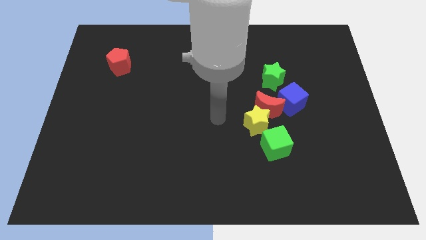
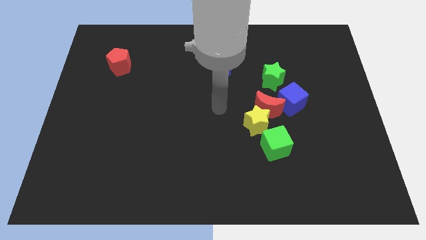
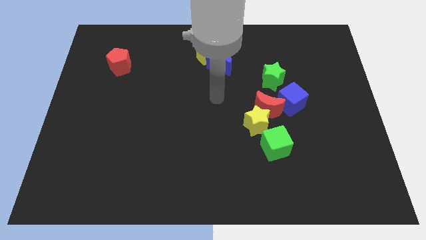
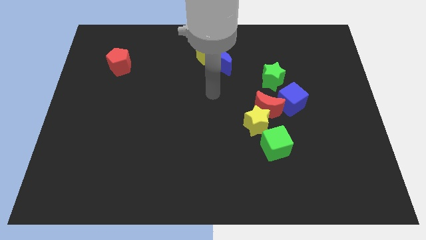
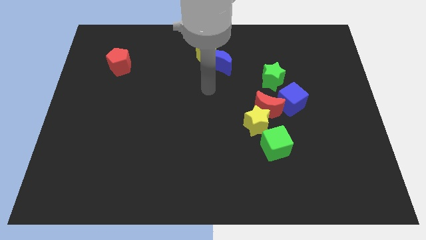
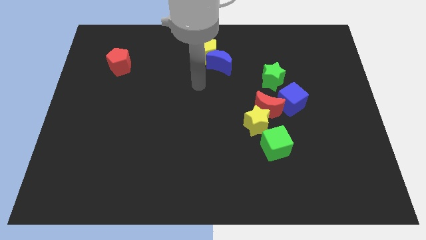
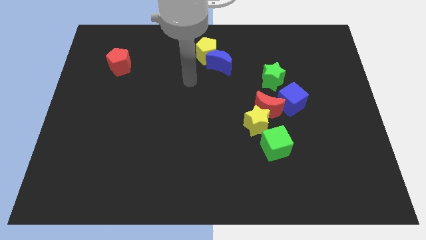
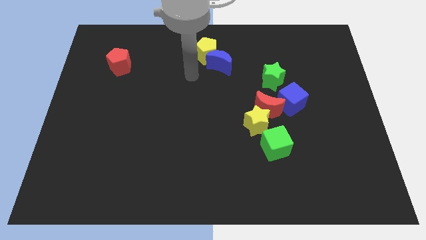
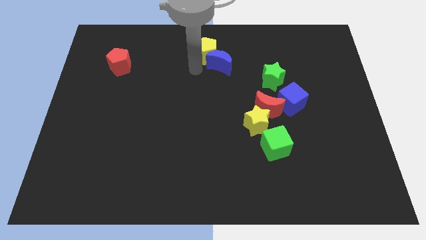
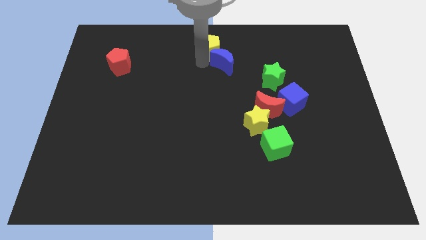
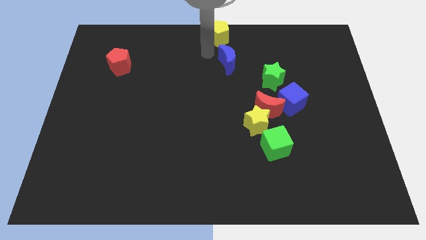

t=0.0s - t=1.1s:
move the blue moon away from the yellow pentagon

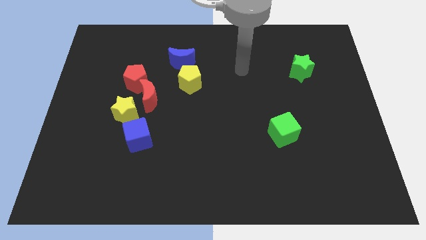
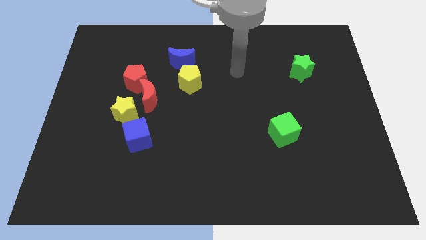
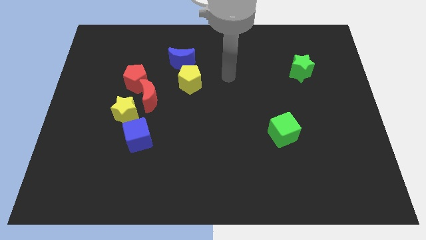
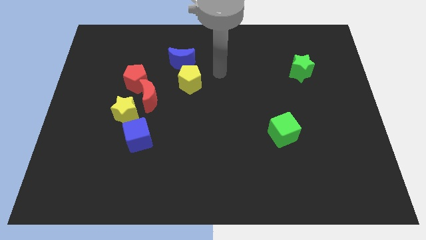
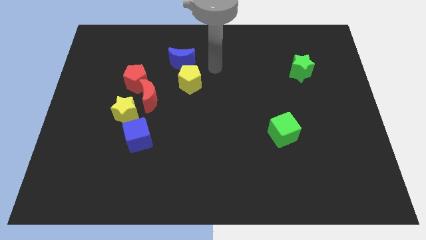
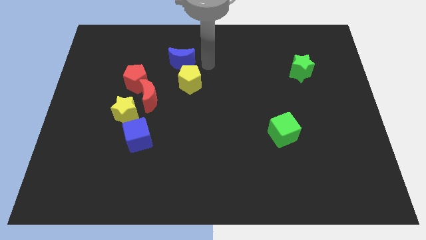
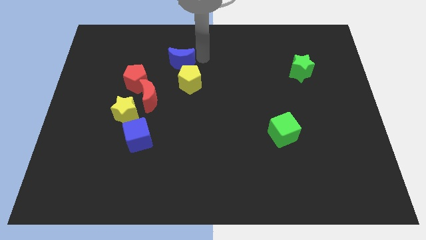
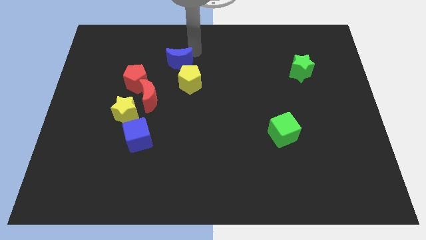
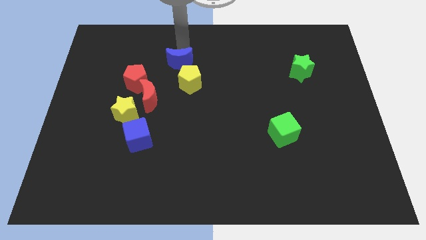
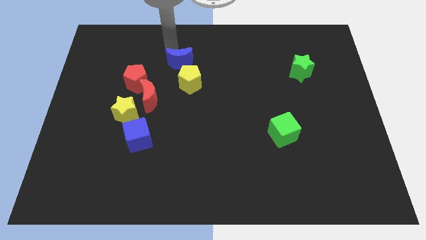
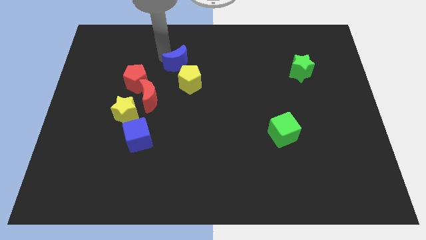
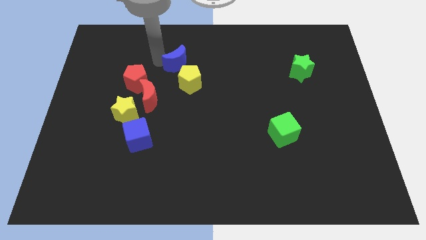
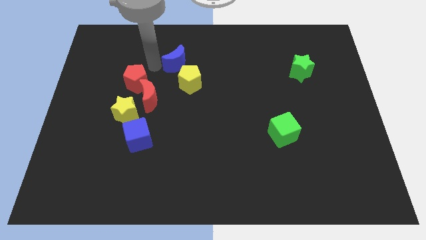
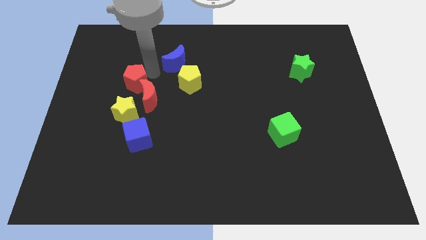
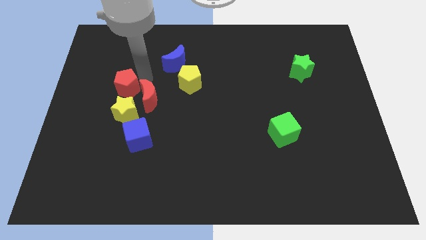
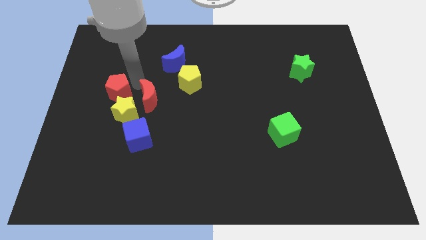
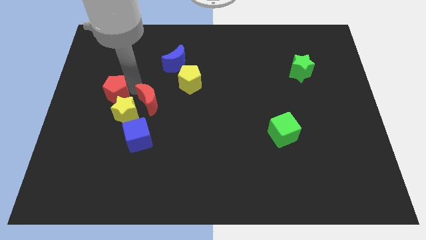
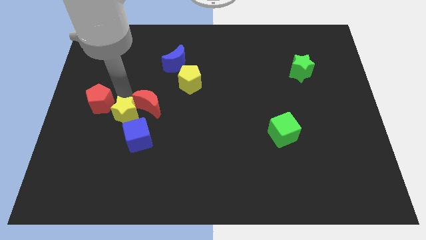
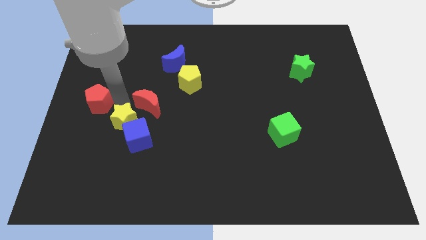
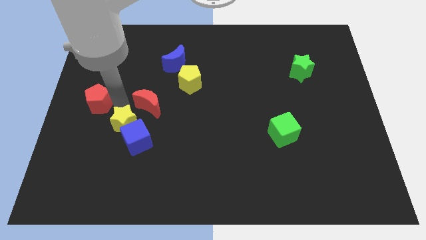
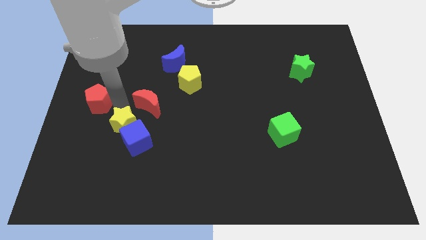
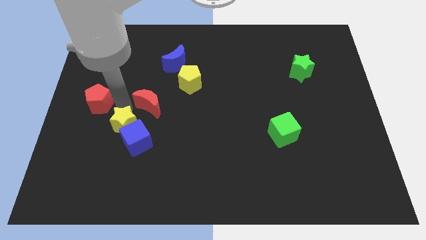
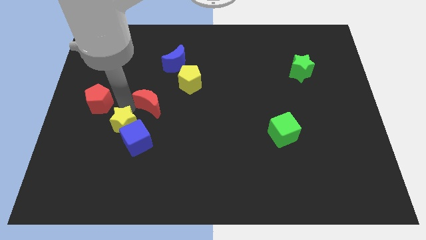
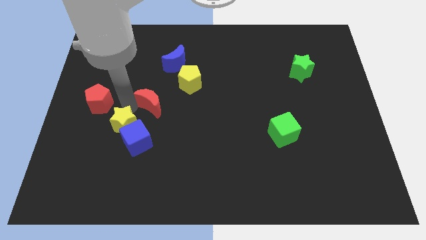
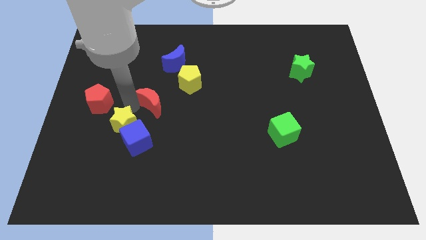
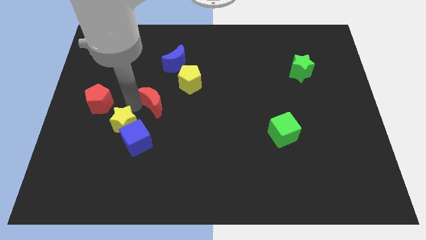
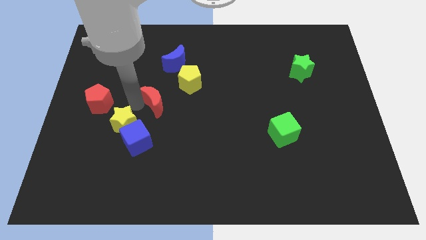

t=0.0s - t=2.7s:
move the red moon away from the yellow star and red pentagon

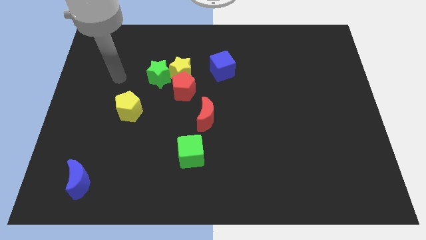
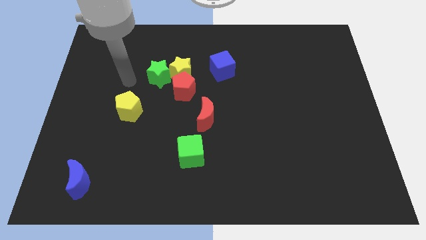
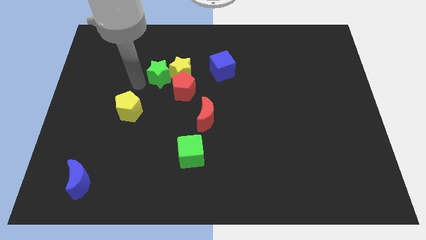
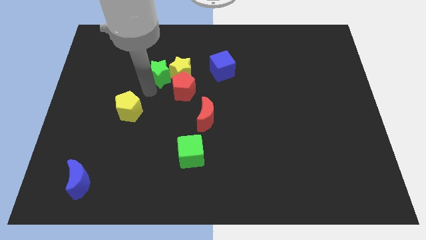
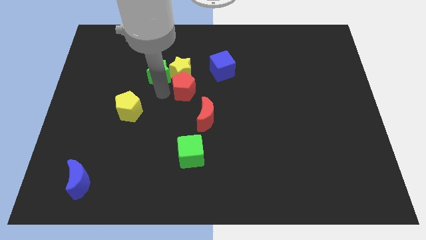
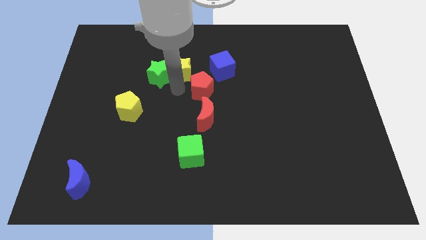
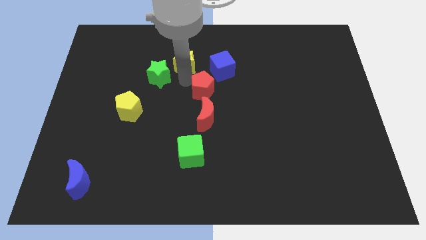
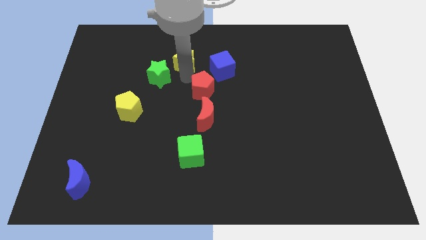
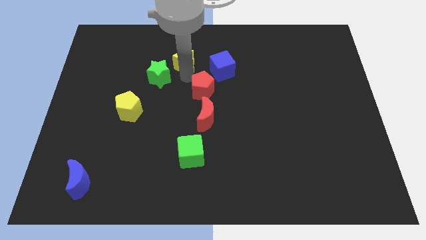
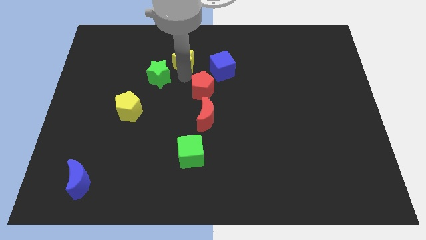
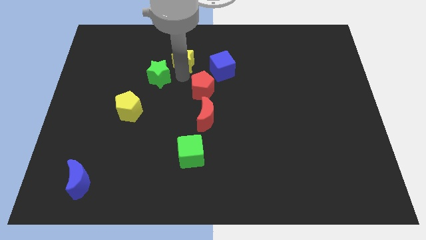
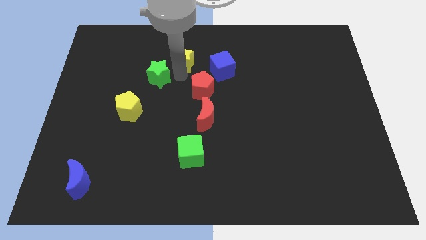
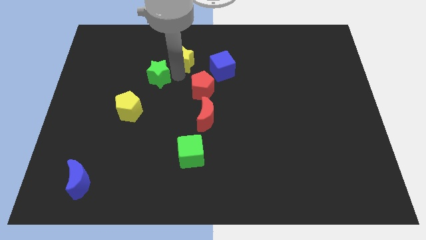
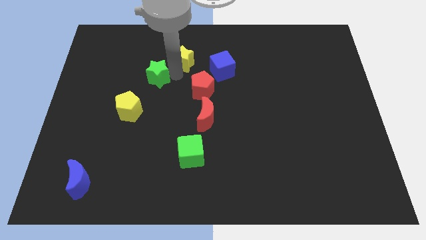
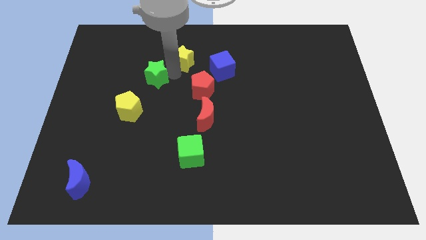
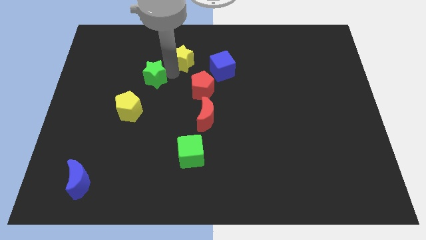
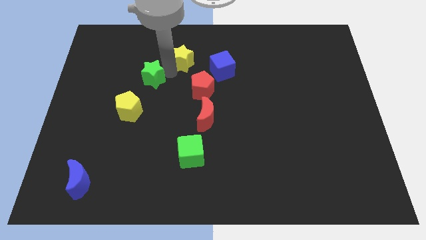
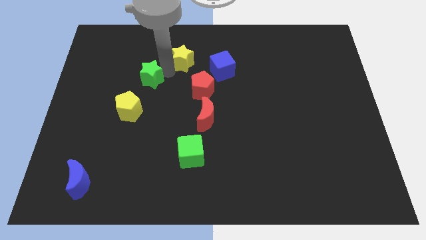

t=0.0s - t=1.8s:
move the green star away from the yellow star and red pentagon

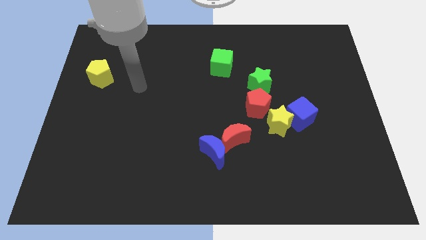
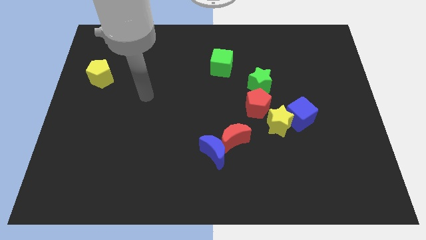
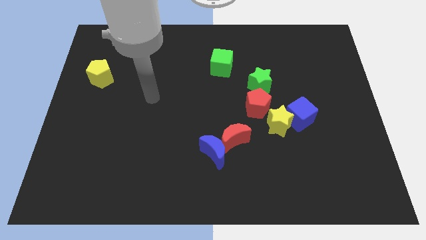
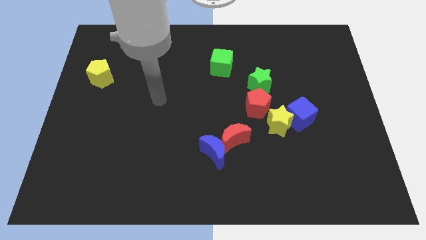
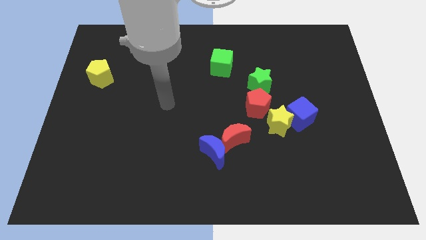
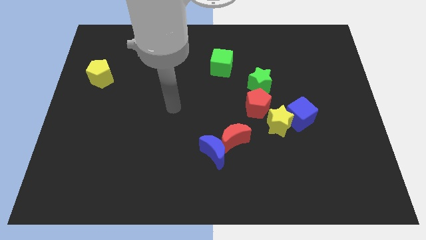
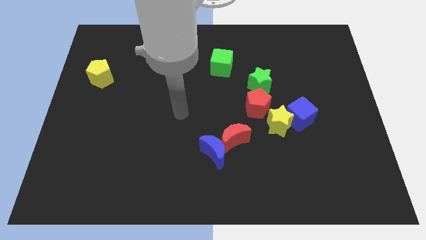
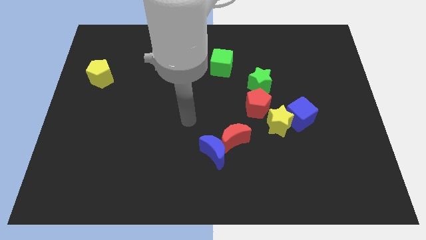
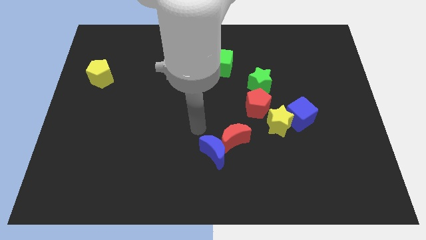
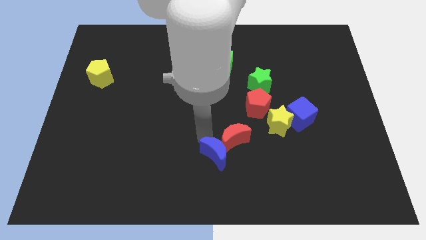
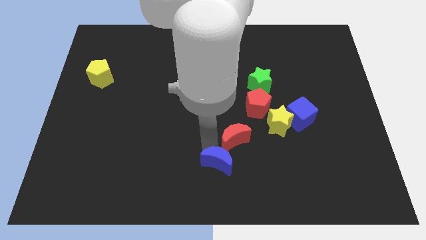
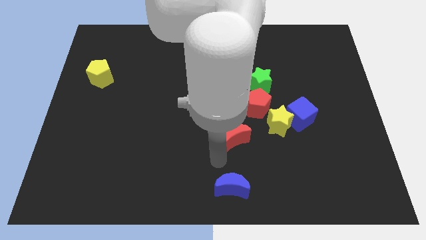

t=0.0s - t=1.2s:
pull the red moon apart from the blue moon

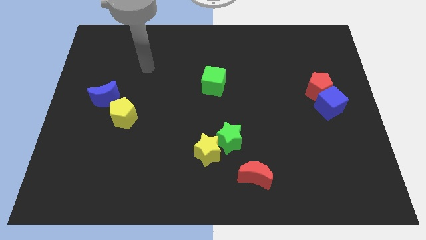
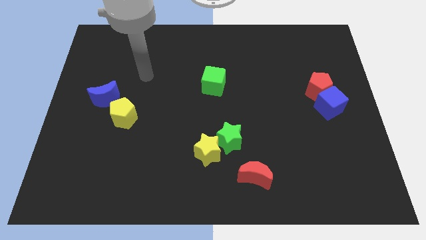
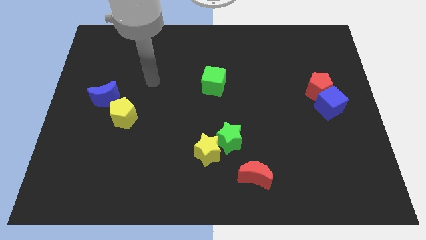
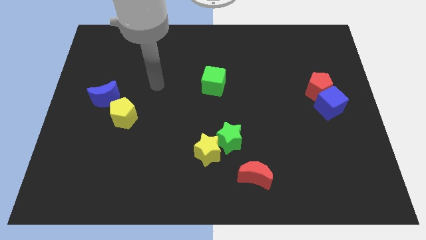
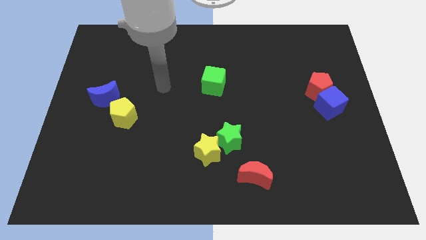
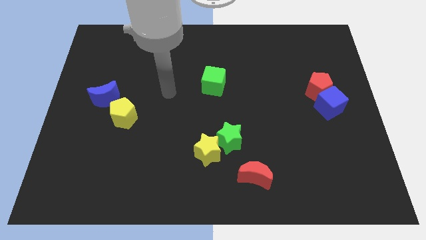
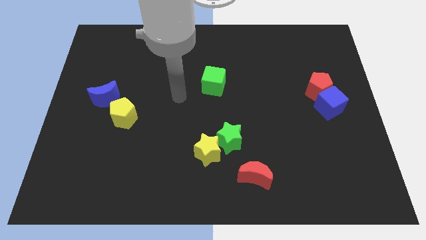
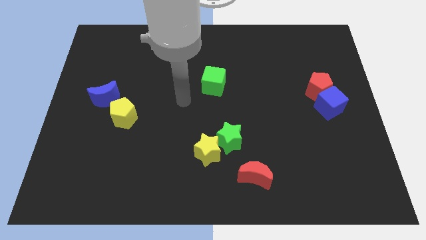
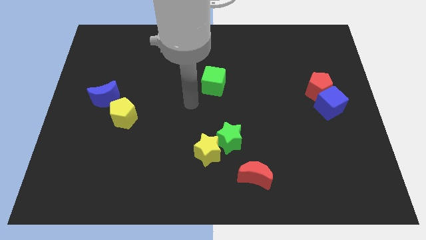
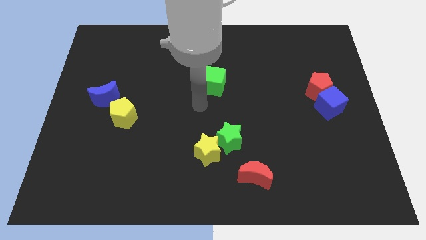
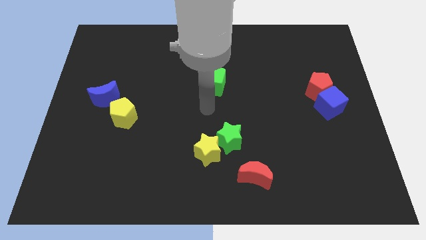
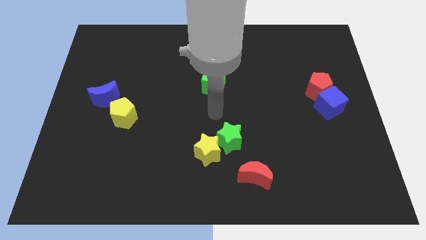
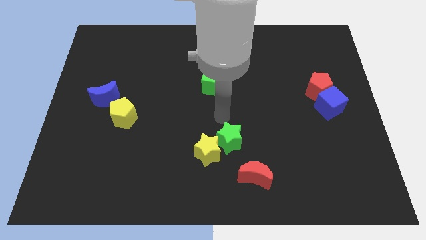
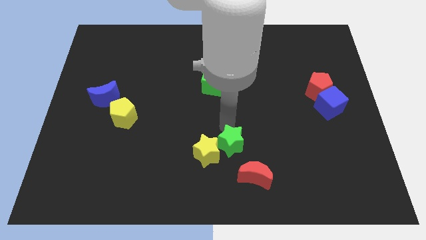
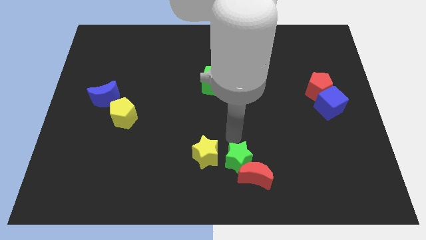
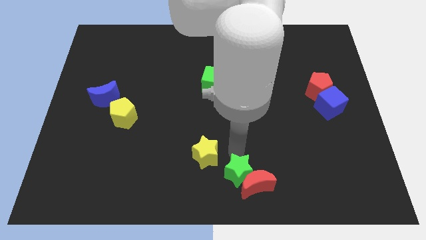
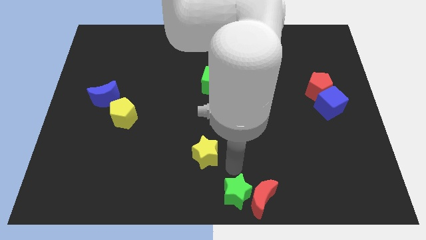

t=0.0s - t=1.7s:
move the yellow star away from the green star

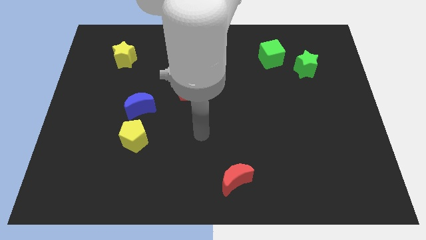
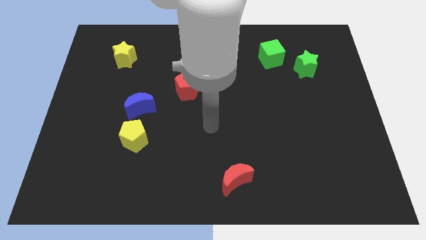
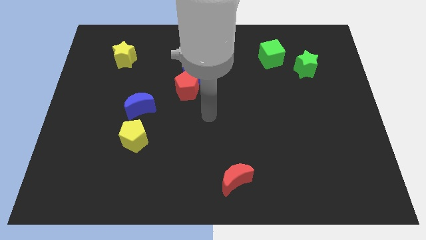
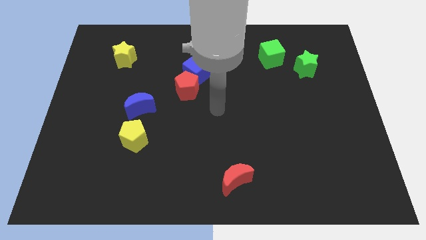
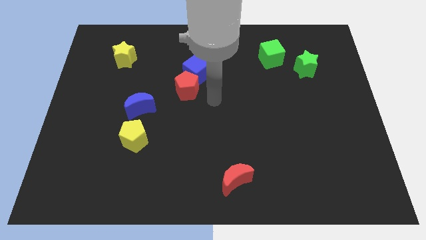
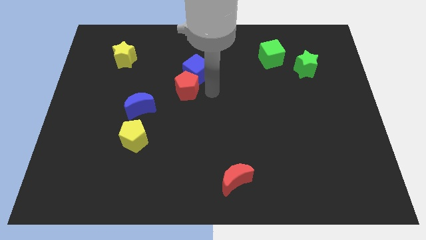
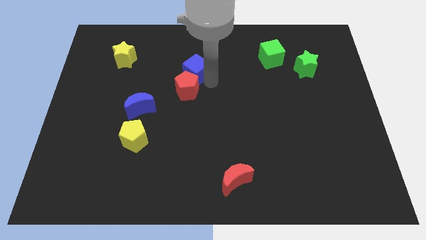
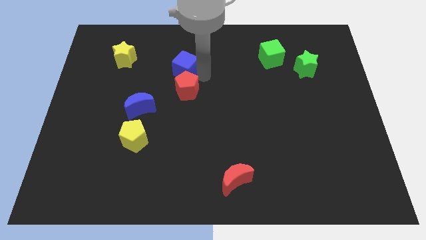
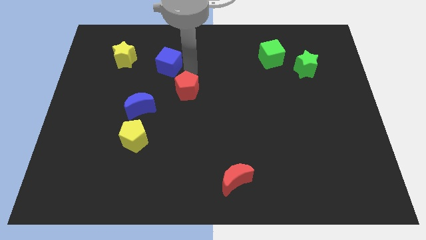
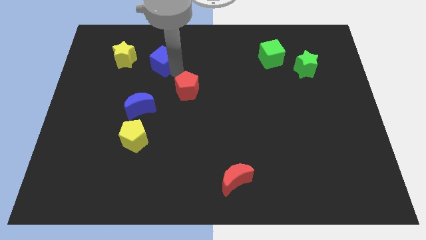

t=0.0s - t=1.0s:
pull the red pentagon apart from the blue cube
